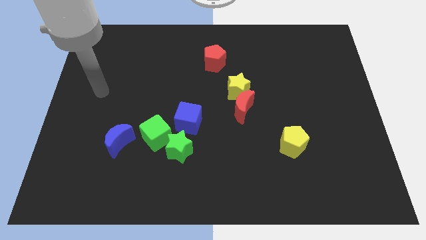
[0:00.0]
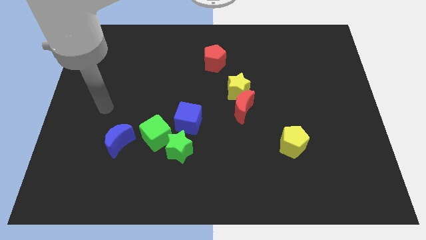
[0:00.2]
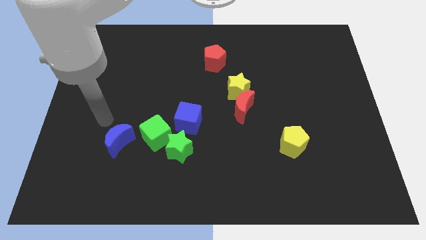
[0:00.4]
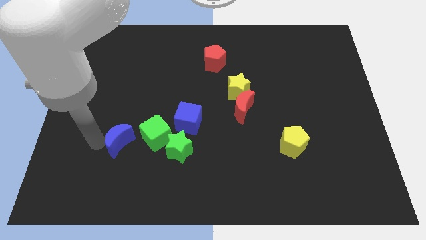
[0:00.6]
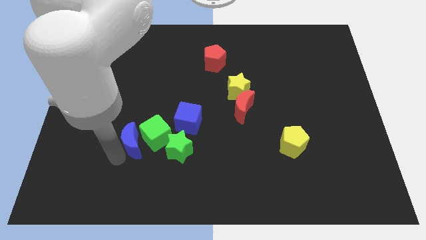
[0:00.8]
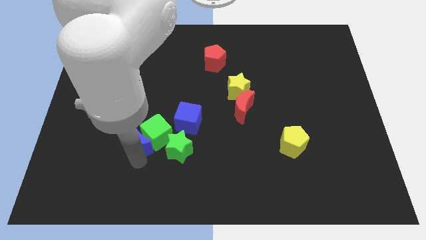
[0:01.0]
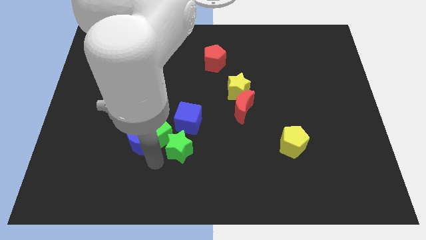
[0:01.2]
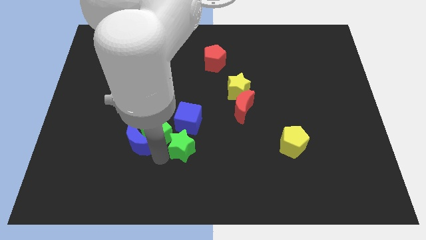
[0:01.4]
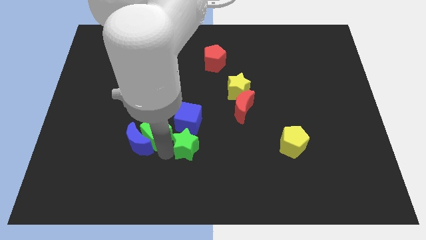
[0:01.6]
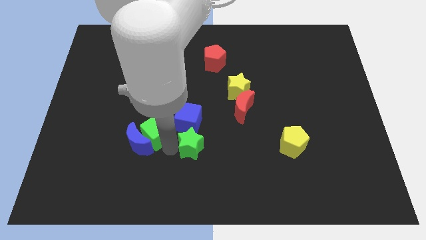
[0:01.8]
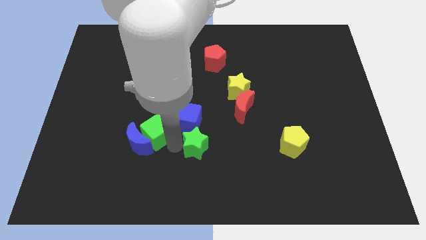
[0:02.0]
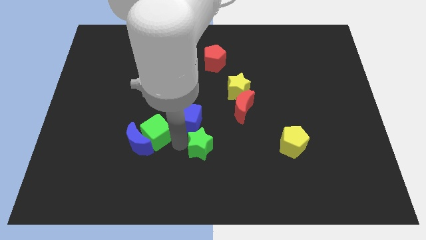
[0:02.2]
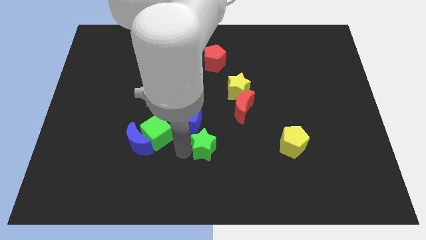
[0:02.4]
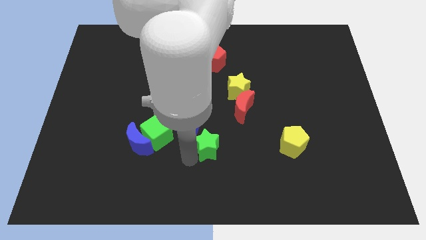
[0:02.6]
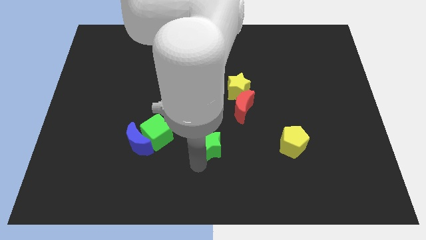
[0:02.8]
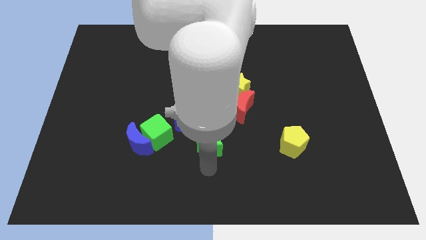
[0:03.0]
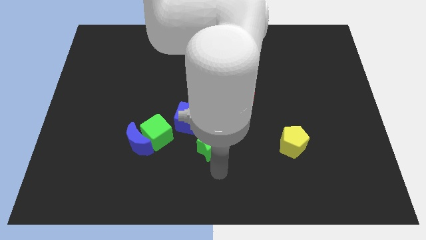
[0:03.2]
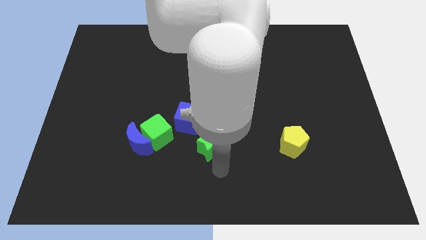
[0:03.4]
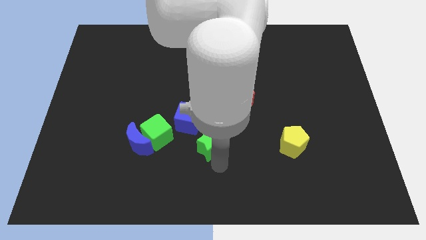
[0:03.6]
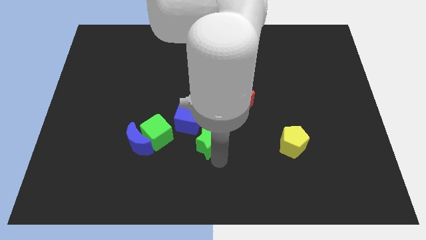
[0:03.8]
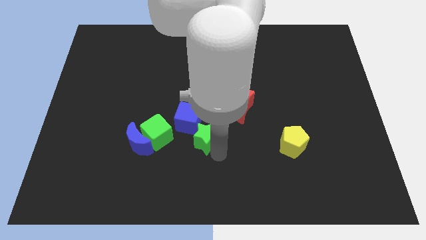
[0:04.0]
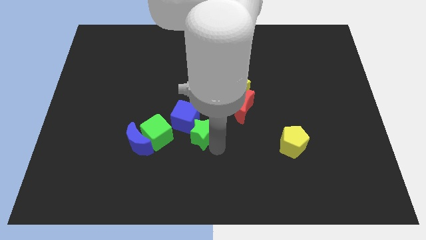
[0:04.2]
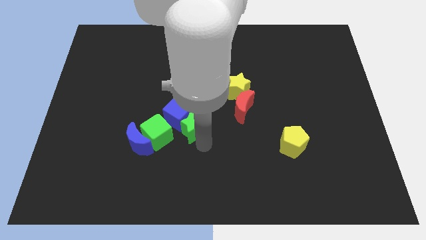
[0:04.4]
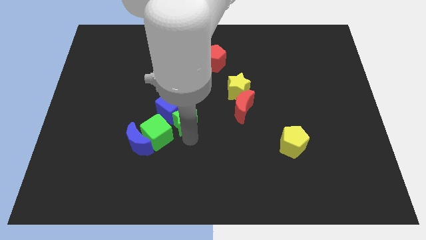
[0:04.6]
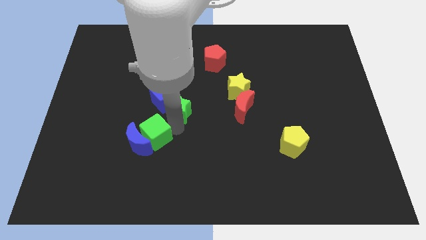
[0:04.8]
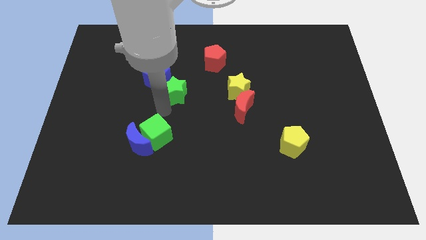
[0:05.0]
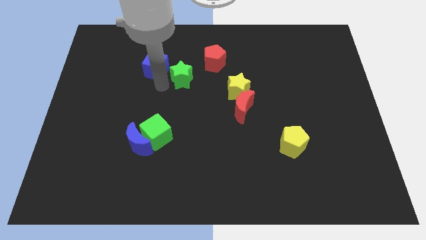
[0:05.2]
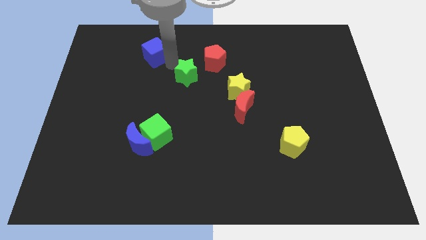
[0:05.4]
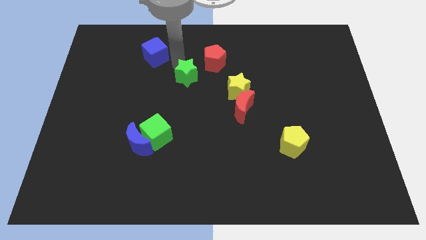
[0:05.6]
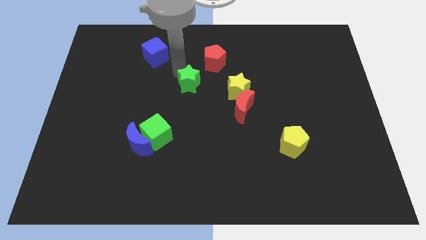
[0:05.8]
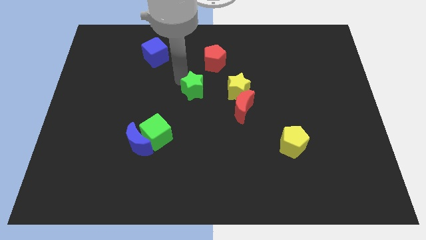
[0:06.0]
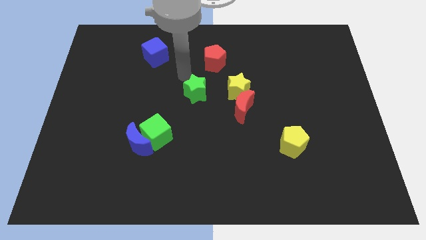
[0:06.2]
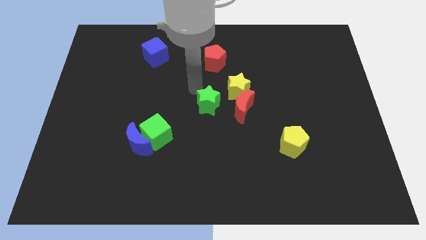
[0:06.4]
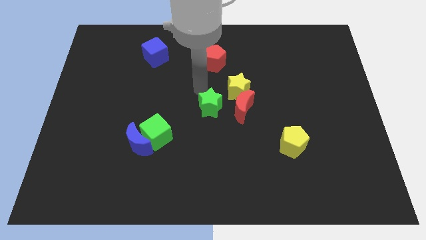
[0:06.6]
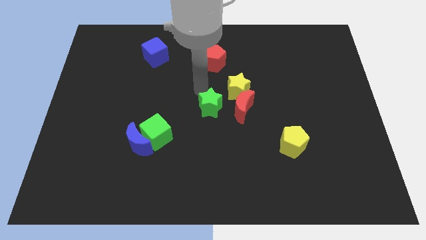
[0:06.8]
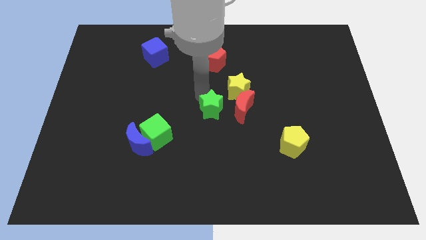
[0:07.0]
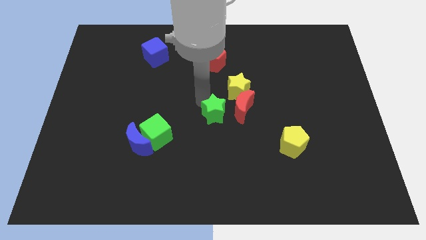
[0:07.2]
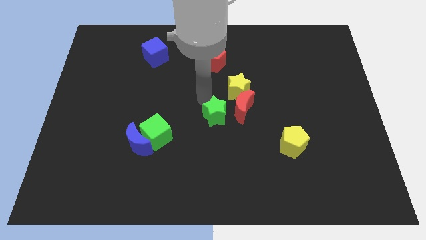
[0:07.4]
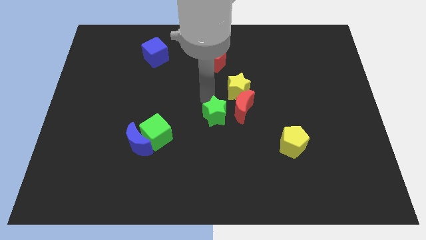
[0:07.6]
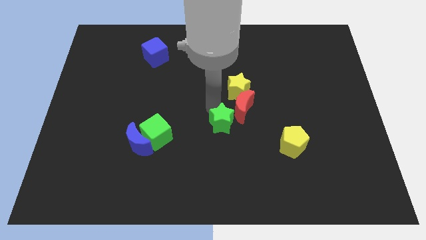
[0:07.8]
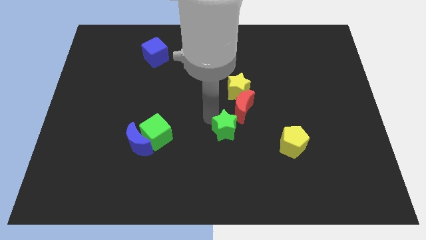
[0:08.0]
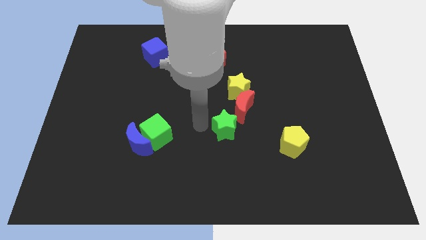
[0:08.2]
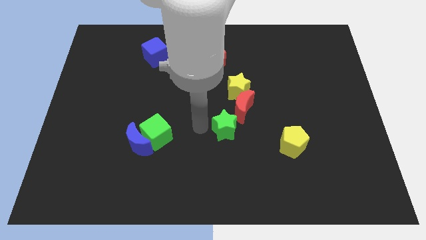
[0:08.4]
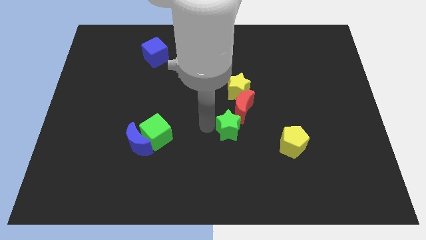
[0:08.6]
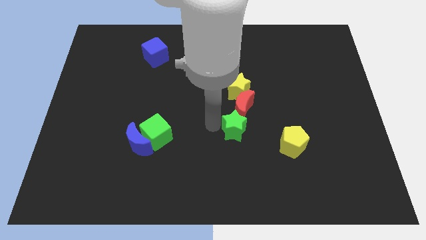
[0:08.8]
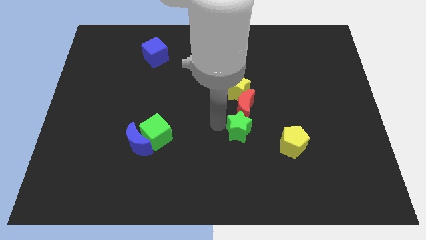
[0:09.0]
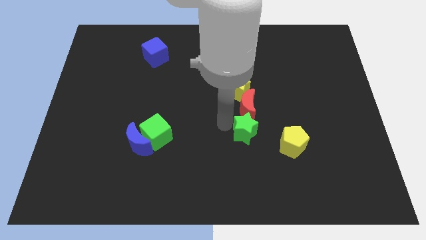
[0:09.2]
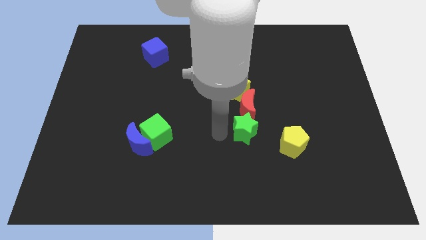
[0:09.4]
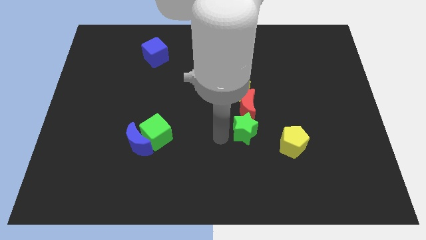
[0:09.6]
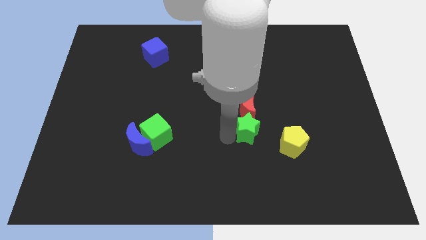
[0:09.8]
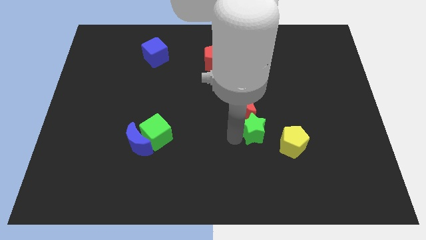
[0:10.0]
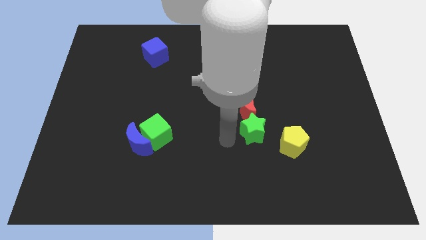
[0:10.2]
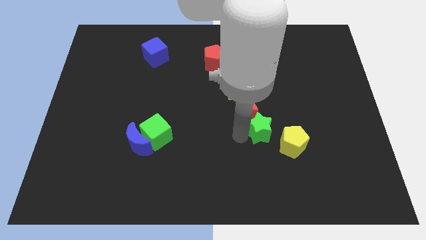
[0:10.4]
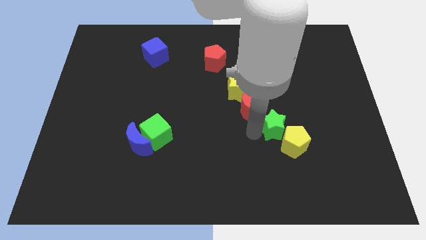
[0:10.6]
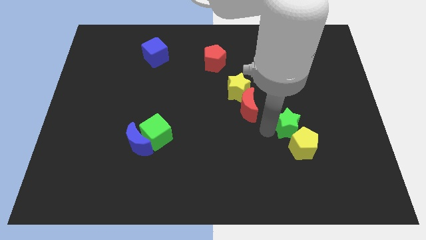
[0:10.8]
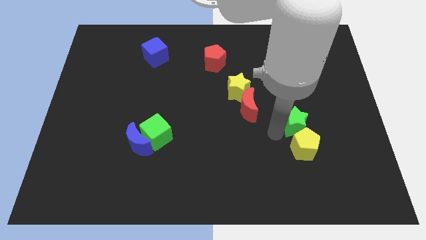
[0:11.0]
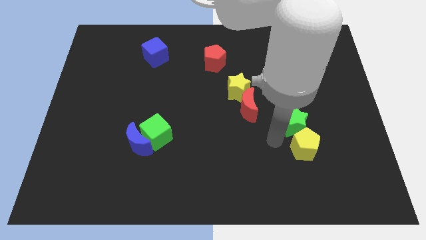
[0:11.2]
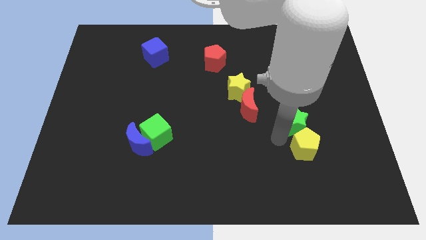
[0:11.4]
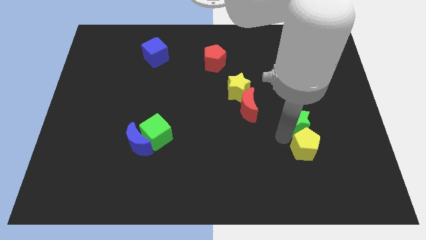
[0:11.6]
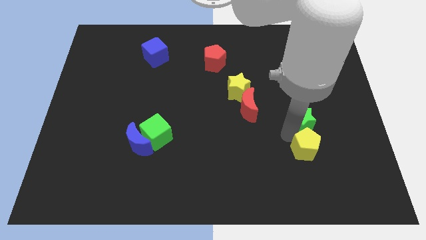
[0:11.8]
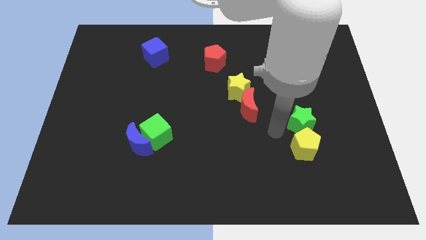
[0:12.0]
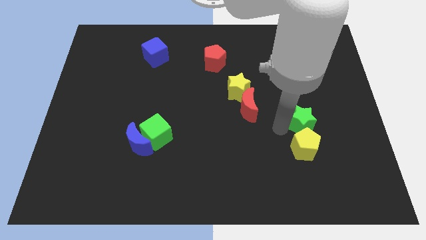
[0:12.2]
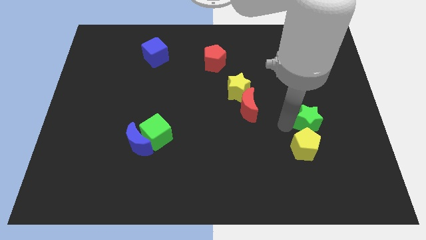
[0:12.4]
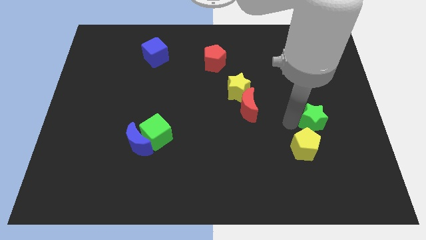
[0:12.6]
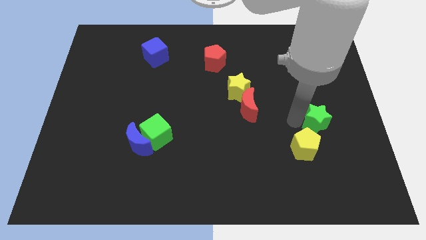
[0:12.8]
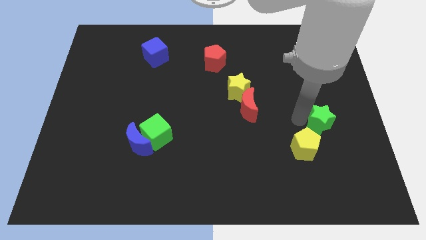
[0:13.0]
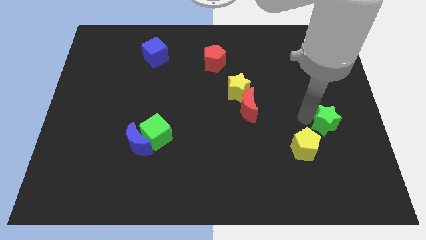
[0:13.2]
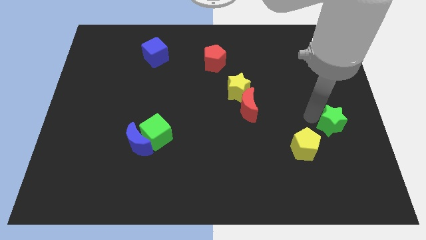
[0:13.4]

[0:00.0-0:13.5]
slide the green star to the right side
